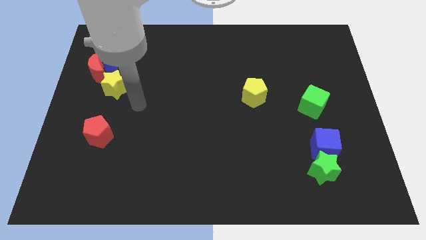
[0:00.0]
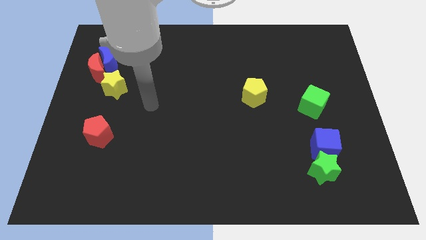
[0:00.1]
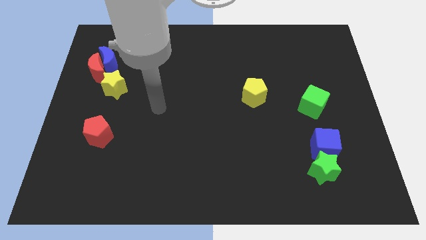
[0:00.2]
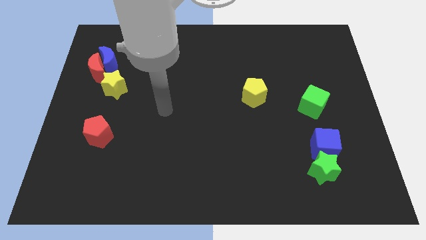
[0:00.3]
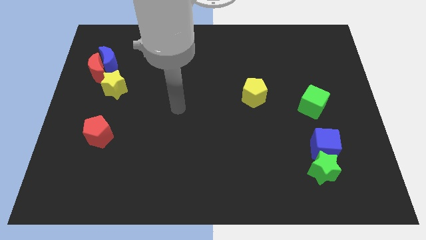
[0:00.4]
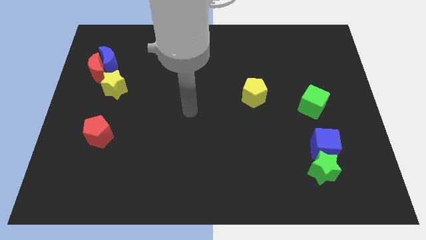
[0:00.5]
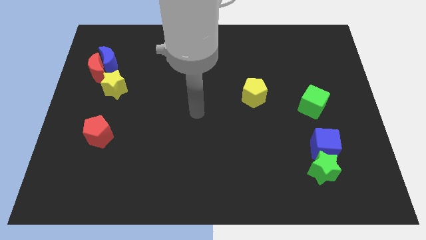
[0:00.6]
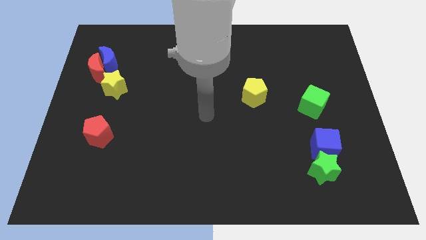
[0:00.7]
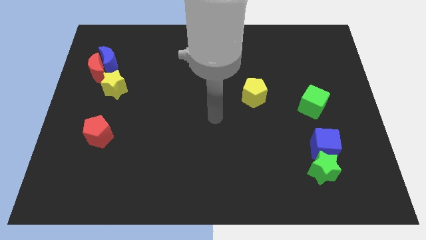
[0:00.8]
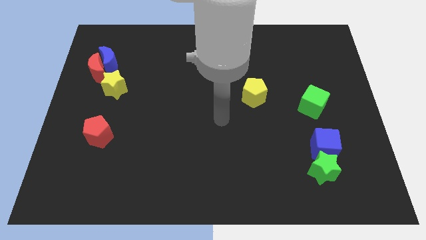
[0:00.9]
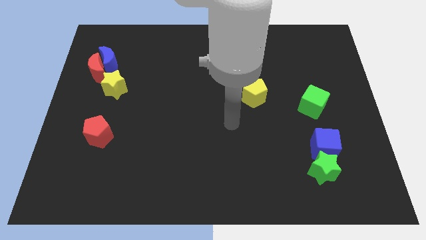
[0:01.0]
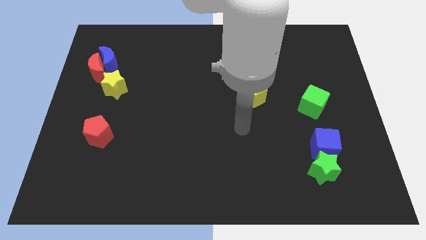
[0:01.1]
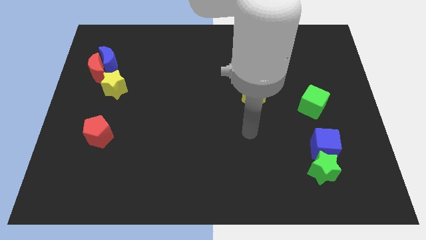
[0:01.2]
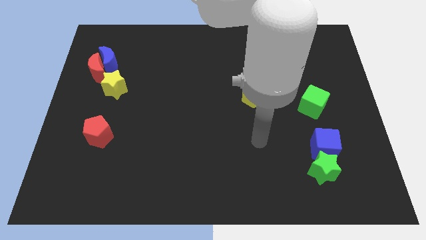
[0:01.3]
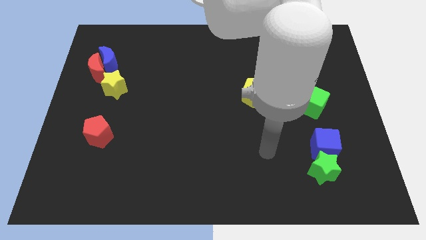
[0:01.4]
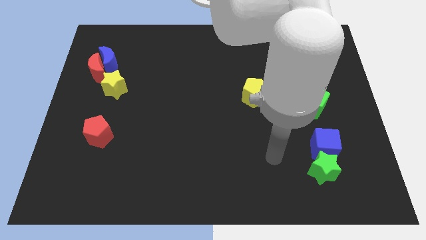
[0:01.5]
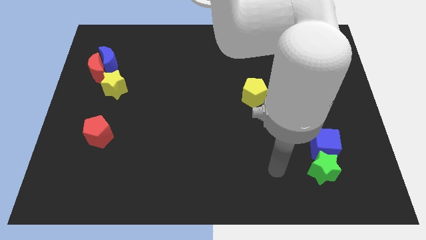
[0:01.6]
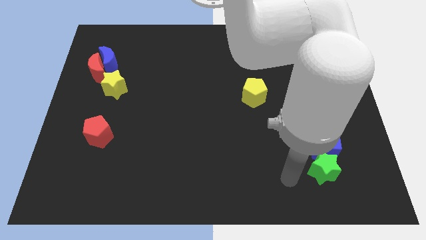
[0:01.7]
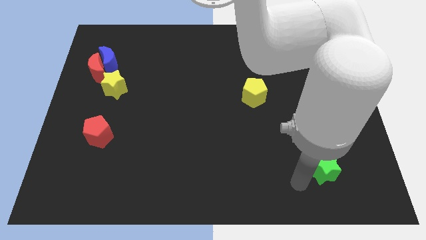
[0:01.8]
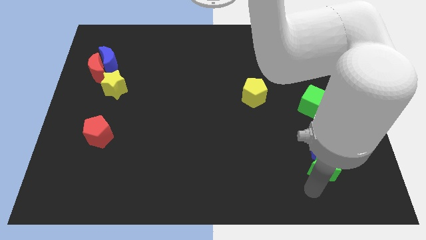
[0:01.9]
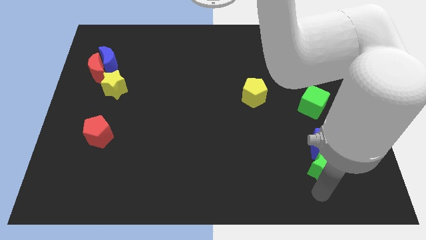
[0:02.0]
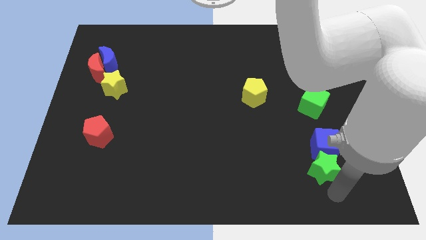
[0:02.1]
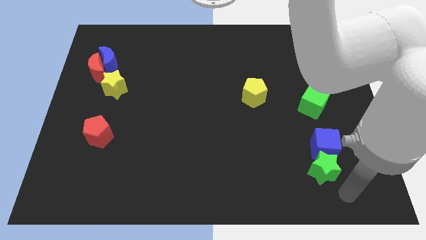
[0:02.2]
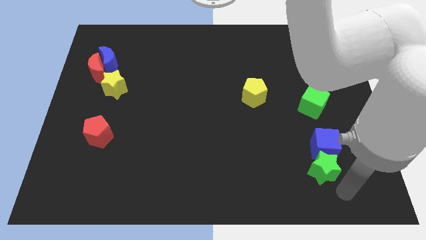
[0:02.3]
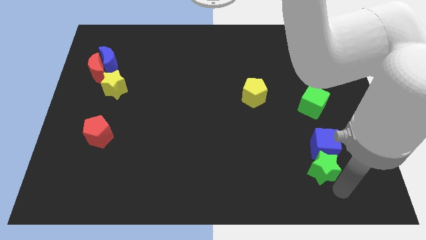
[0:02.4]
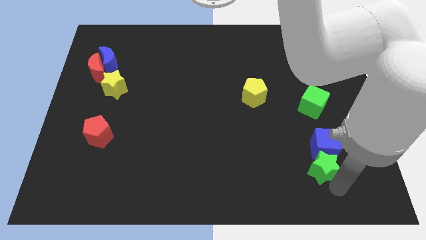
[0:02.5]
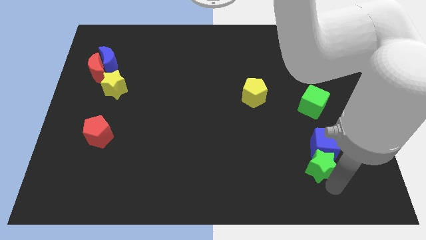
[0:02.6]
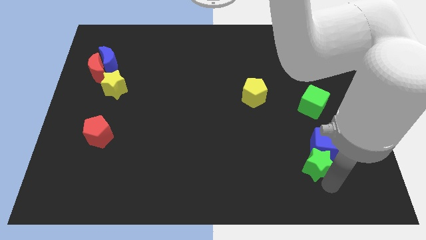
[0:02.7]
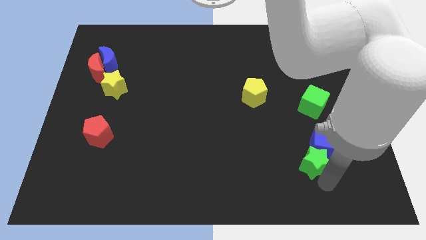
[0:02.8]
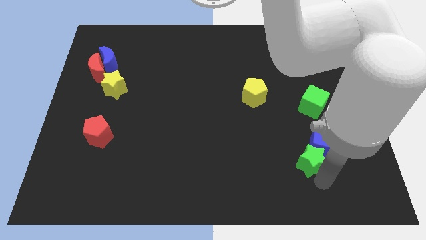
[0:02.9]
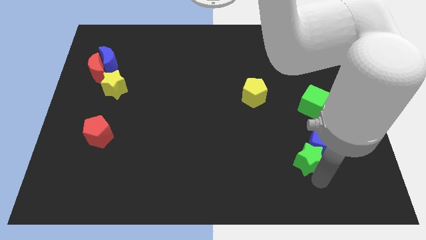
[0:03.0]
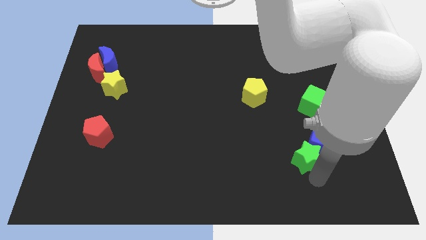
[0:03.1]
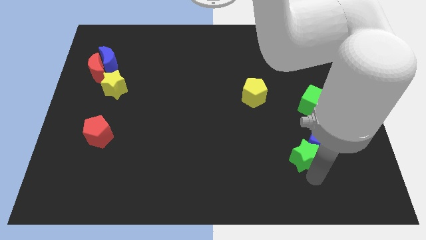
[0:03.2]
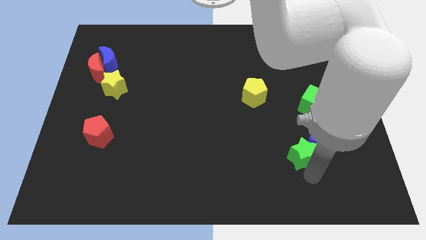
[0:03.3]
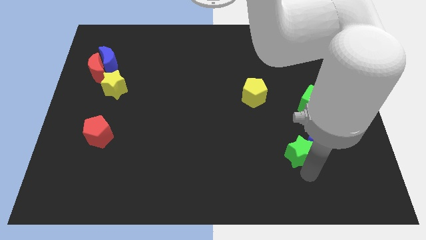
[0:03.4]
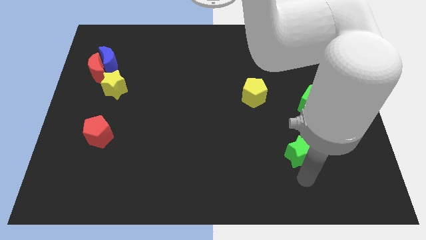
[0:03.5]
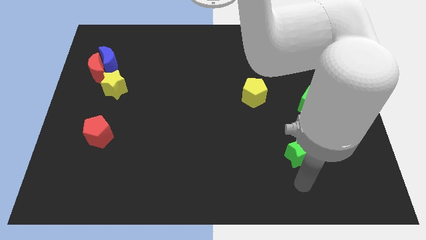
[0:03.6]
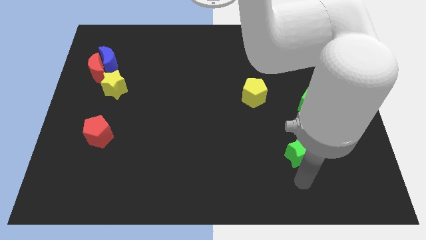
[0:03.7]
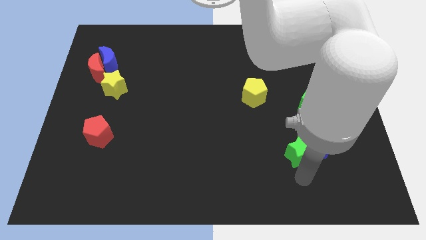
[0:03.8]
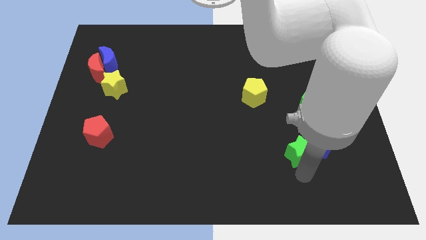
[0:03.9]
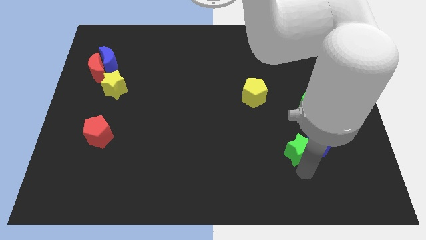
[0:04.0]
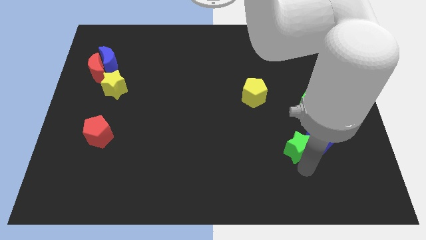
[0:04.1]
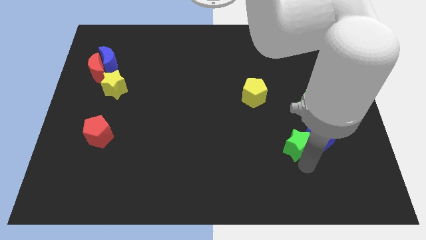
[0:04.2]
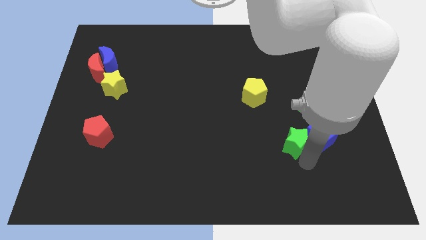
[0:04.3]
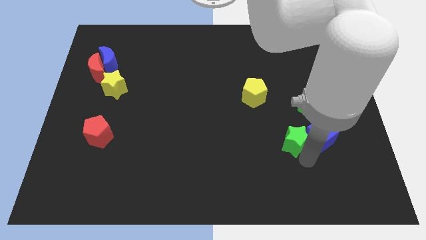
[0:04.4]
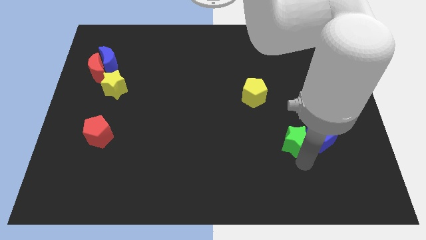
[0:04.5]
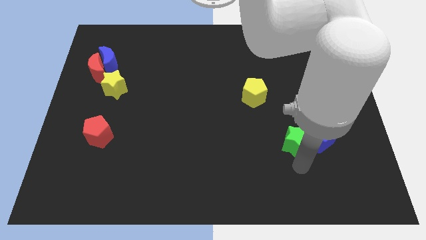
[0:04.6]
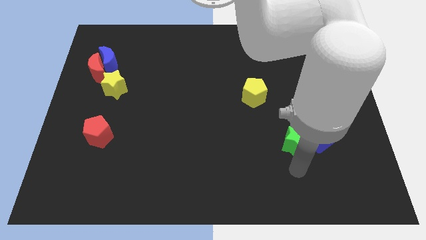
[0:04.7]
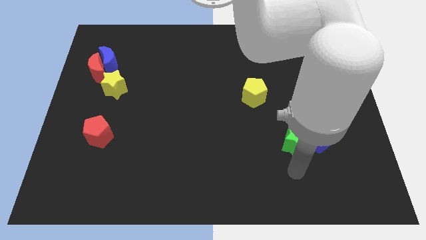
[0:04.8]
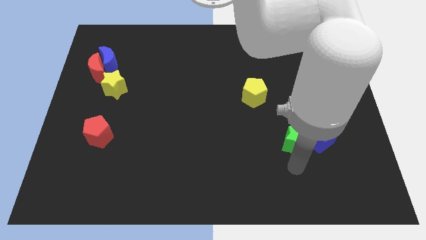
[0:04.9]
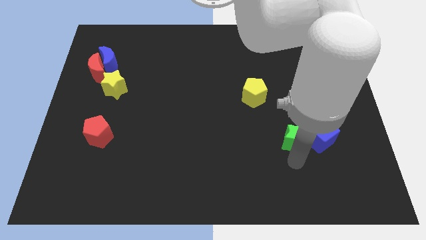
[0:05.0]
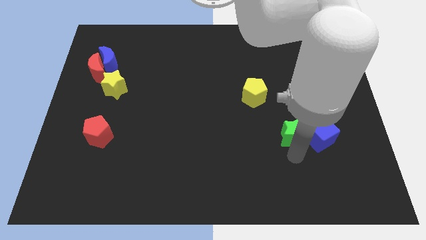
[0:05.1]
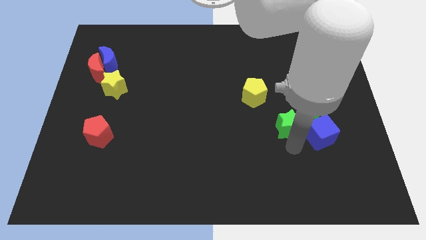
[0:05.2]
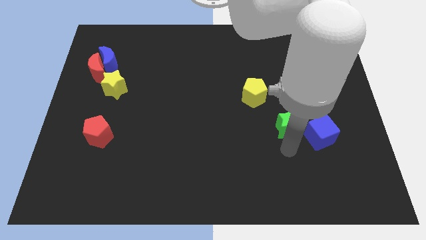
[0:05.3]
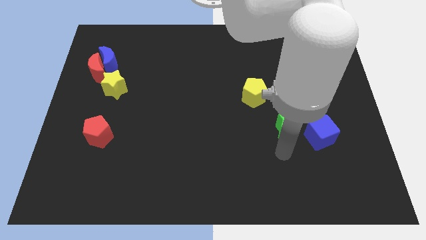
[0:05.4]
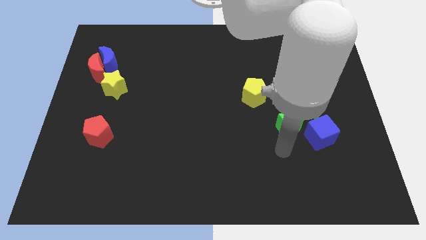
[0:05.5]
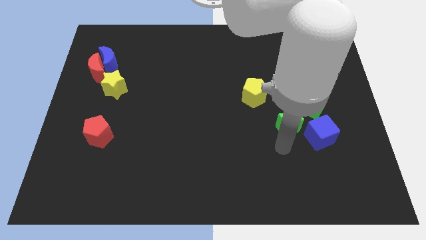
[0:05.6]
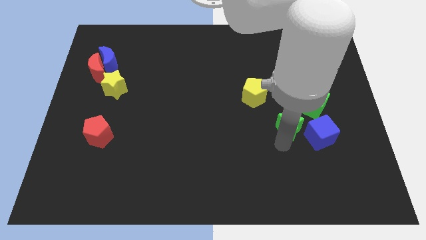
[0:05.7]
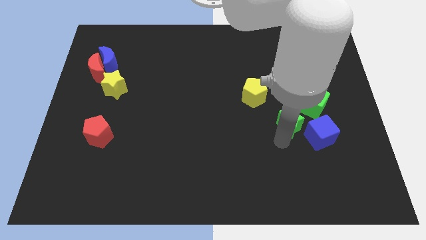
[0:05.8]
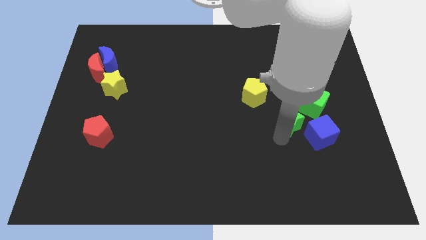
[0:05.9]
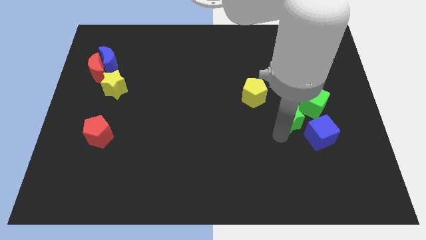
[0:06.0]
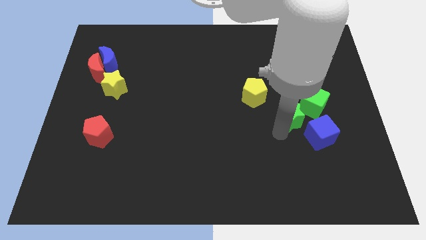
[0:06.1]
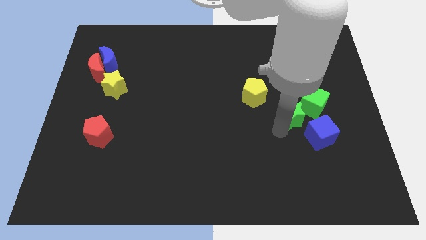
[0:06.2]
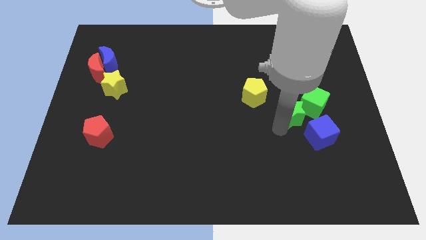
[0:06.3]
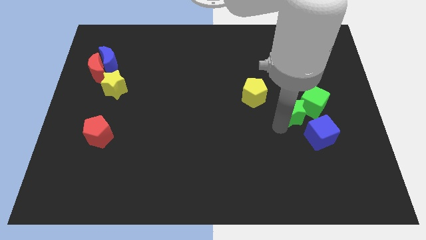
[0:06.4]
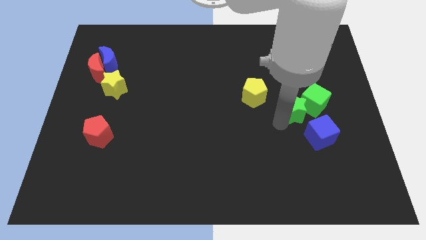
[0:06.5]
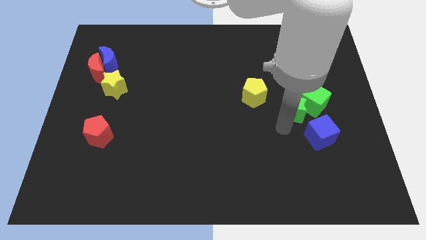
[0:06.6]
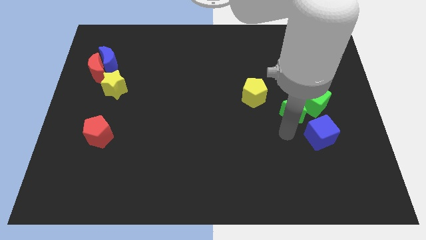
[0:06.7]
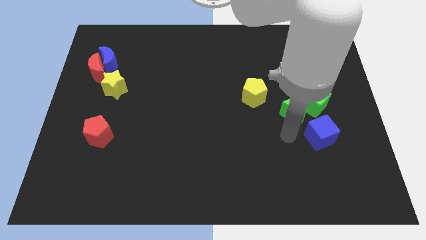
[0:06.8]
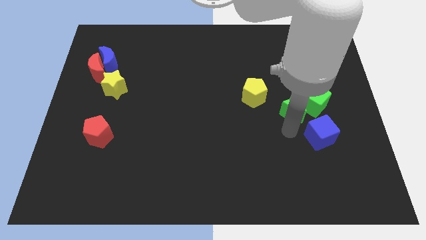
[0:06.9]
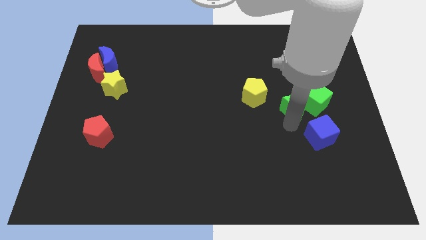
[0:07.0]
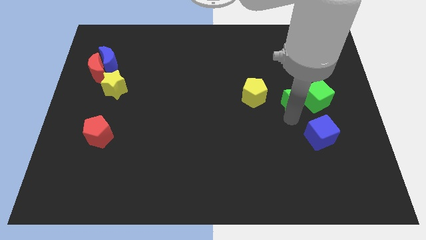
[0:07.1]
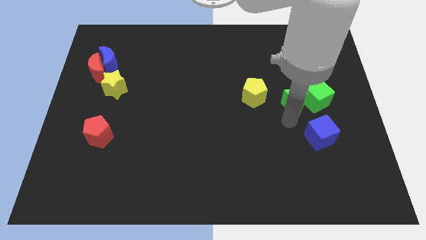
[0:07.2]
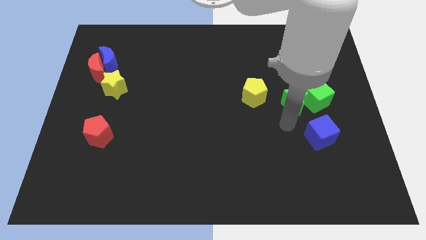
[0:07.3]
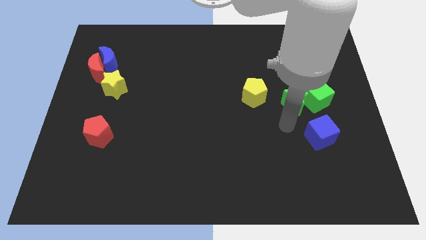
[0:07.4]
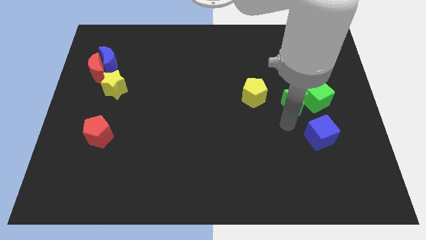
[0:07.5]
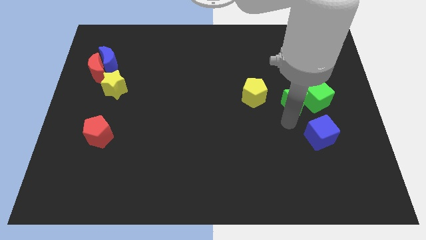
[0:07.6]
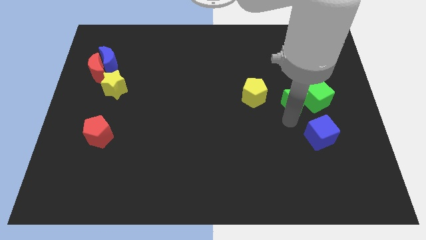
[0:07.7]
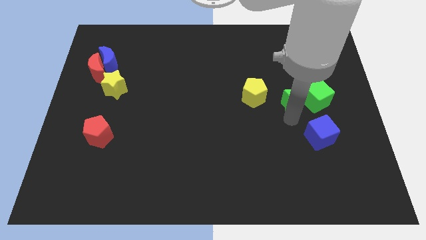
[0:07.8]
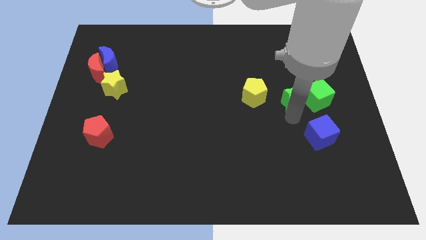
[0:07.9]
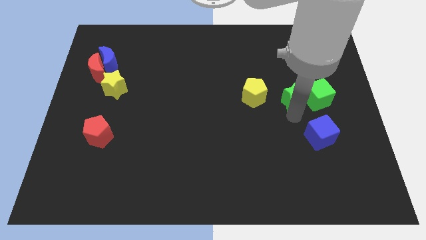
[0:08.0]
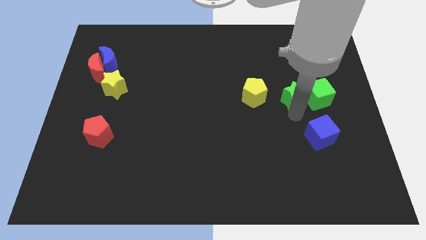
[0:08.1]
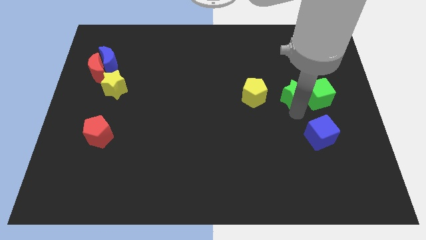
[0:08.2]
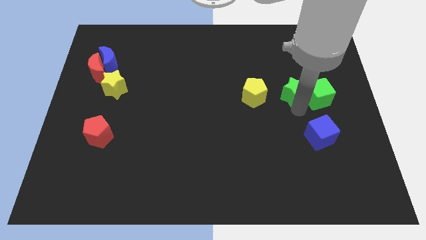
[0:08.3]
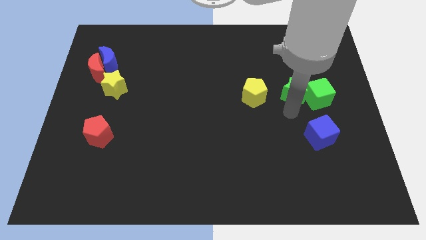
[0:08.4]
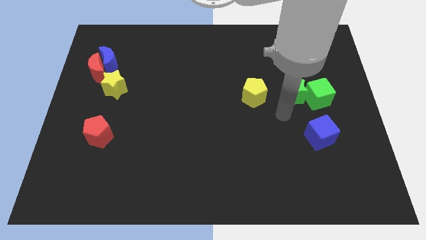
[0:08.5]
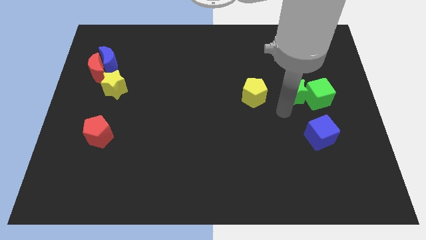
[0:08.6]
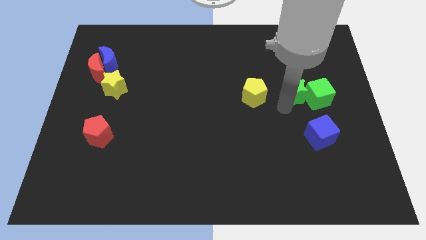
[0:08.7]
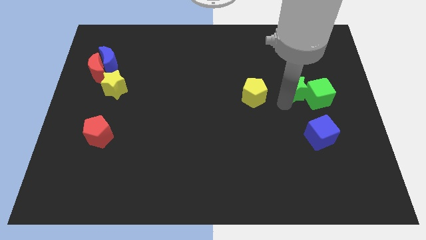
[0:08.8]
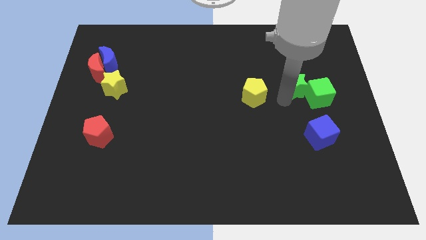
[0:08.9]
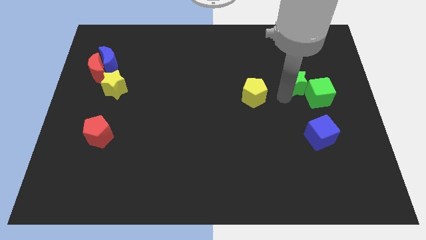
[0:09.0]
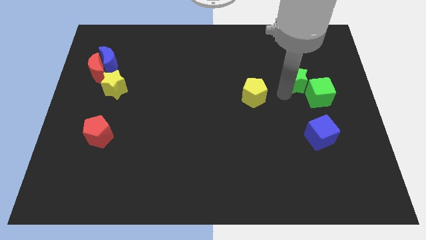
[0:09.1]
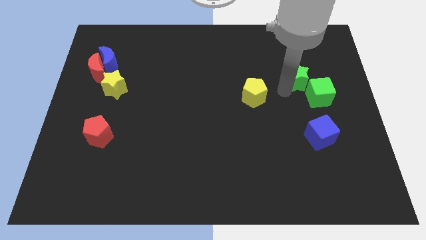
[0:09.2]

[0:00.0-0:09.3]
move the green star to the top side of the green cube
